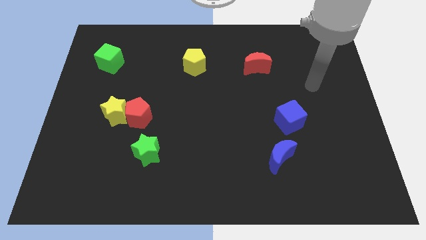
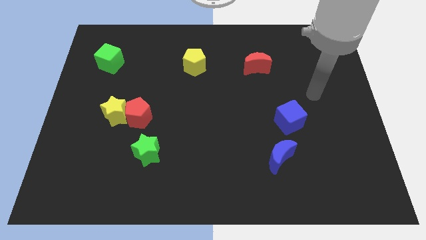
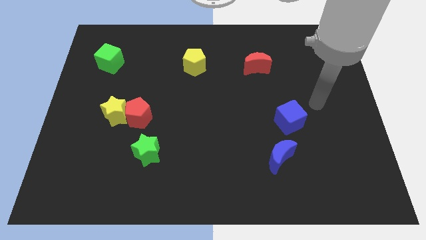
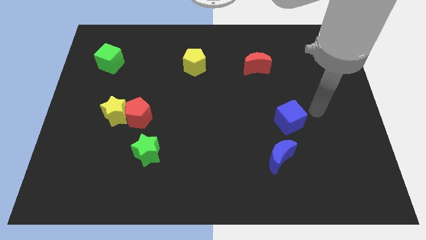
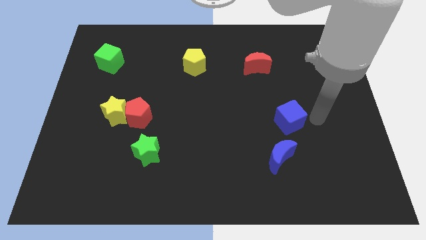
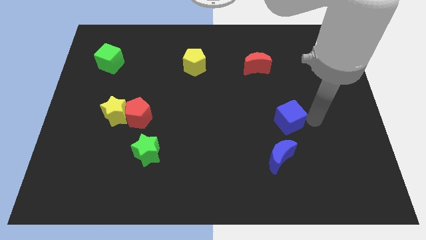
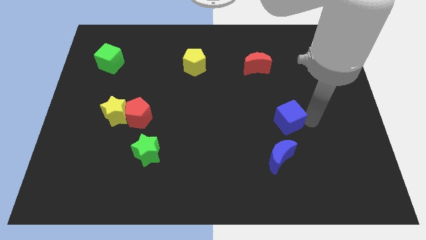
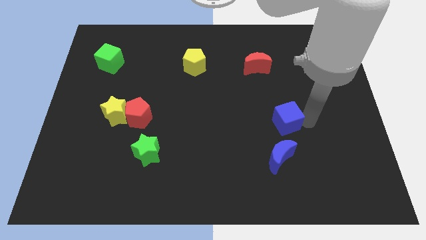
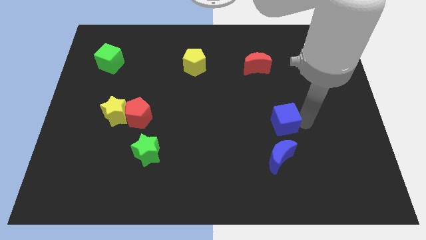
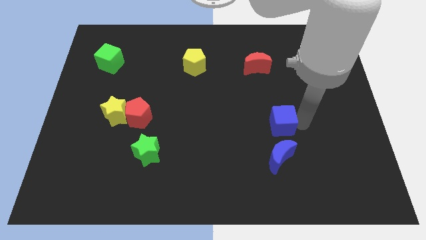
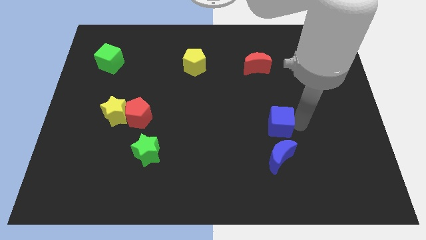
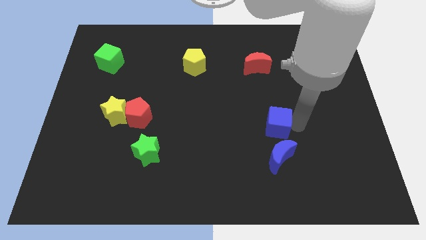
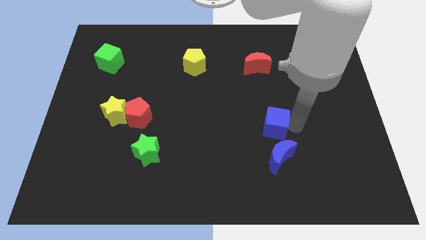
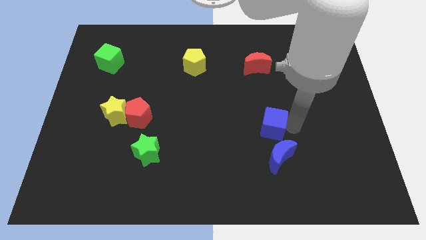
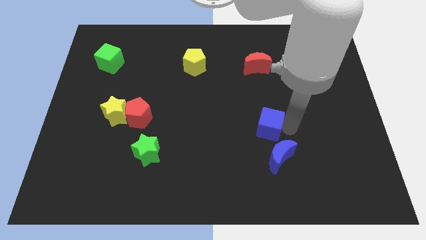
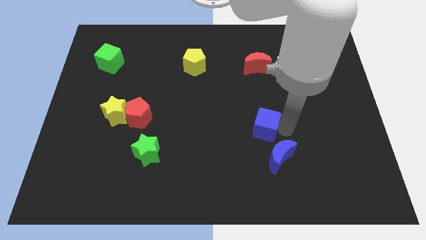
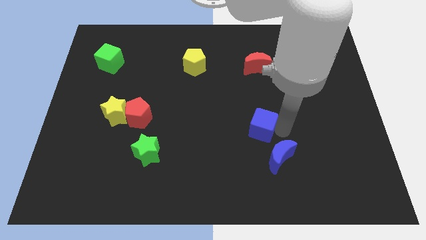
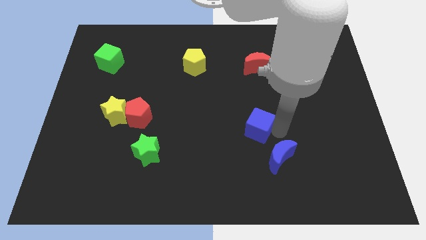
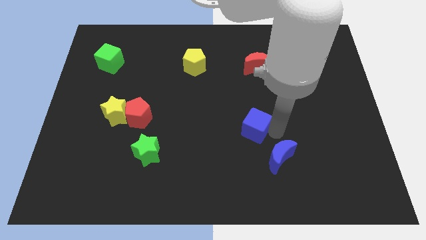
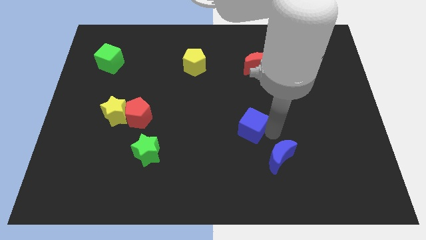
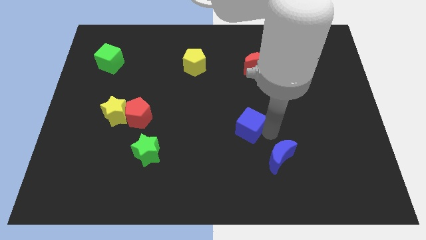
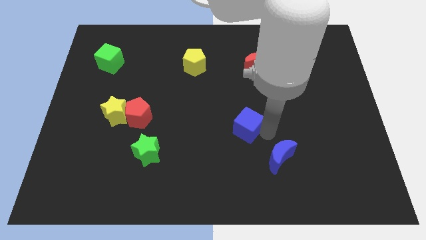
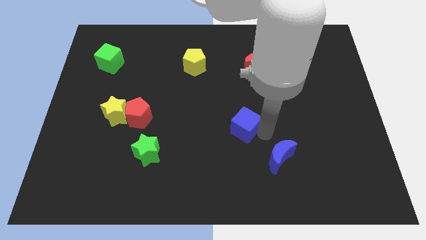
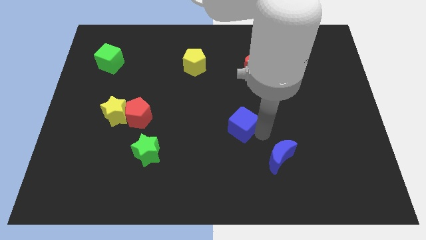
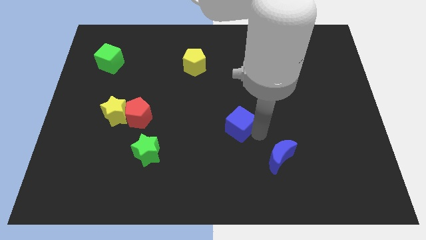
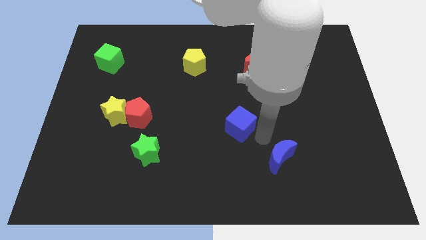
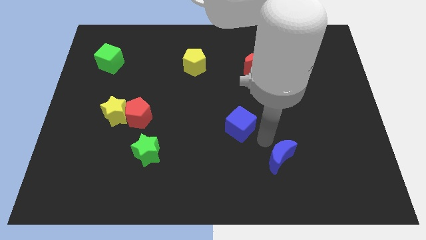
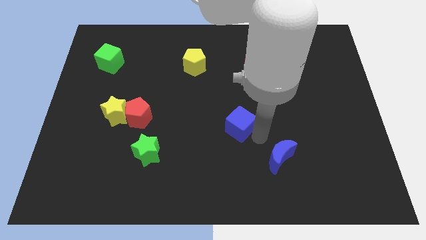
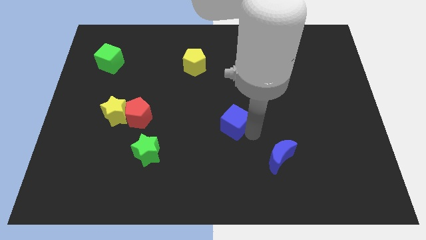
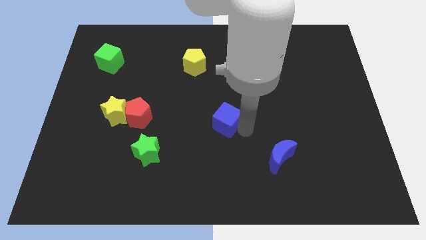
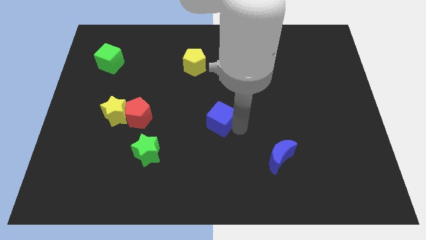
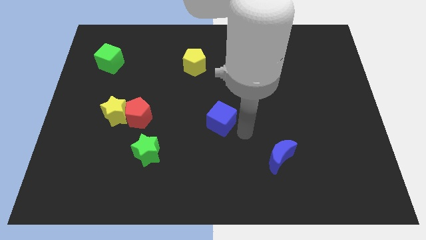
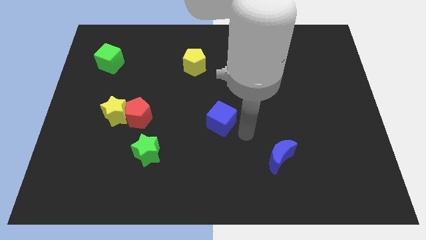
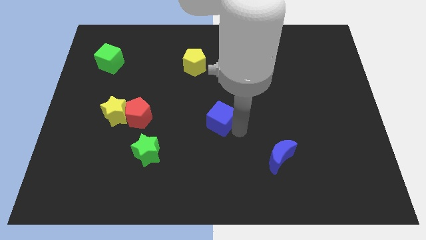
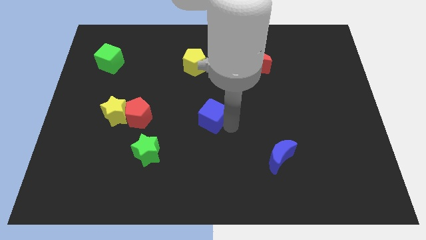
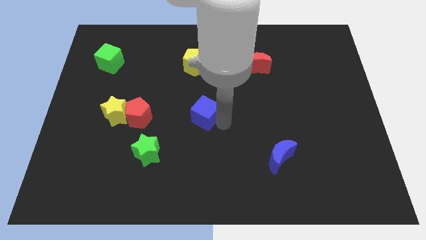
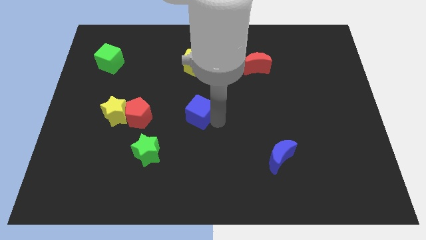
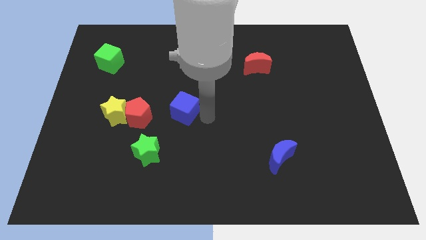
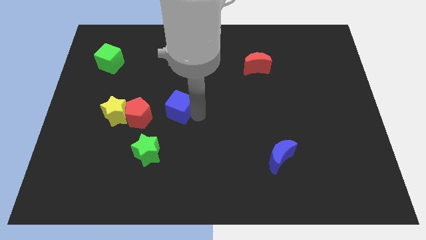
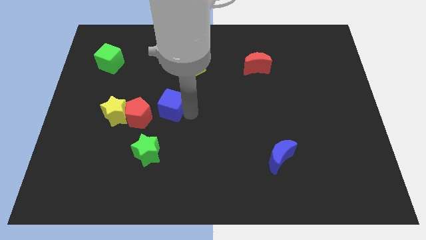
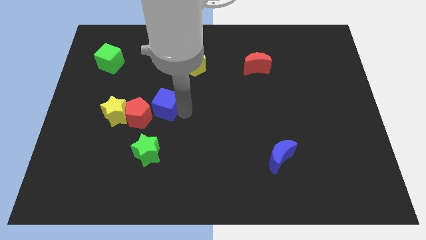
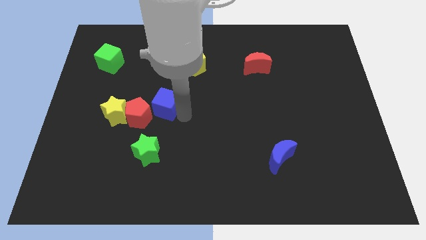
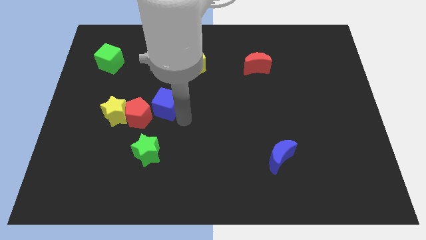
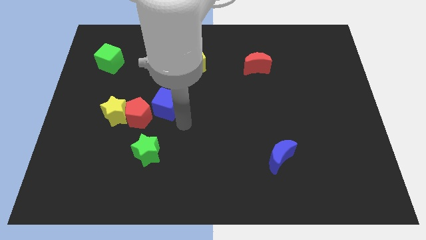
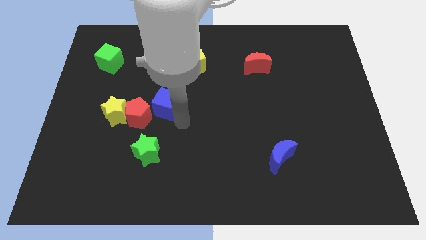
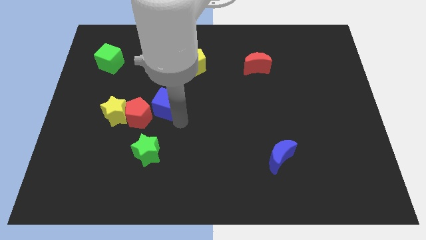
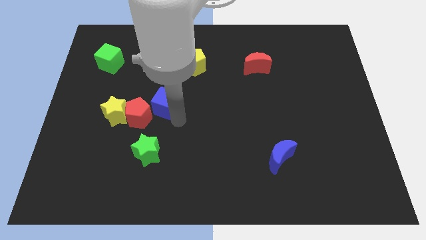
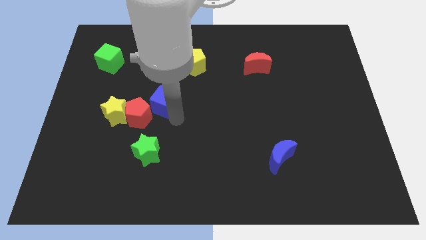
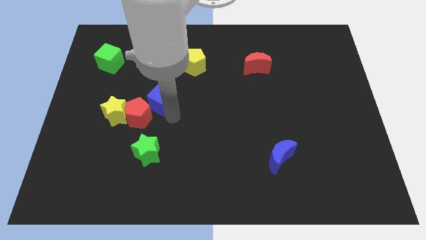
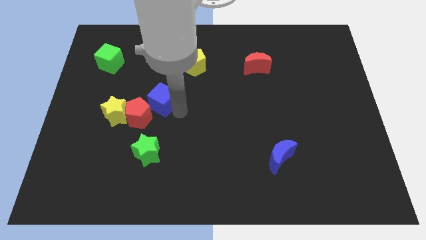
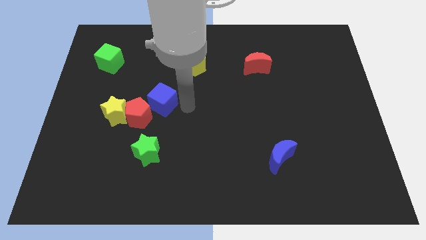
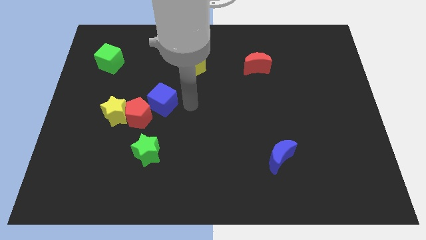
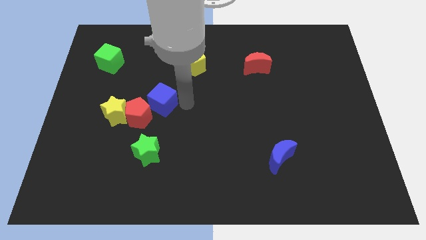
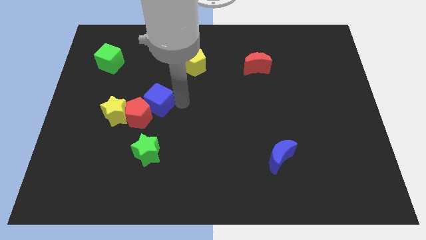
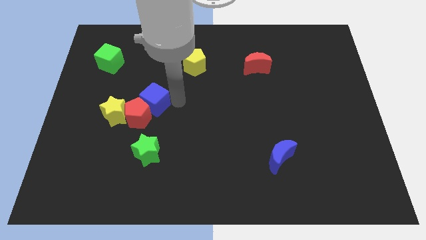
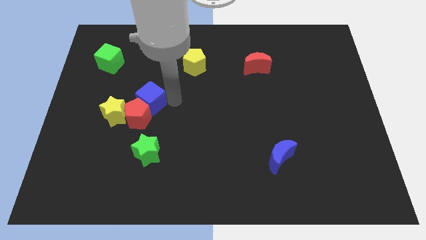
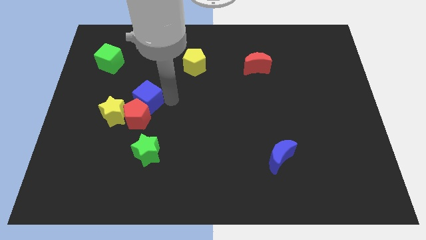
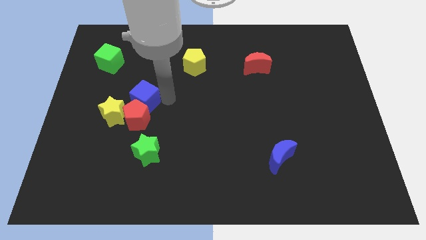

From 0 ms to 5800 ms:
move the blue cube to the top left side of the red pentagon

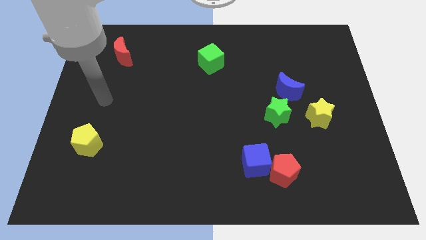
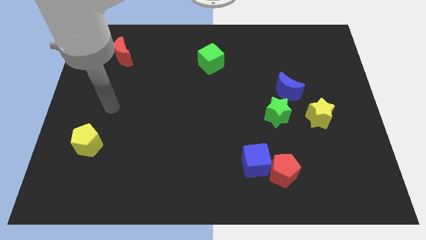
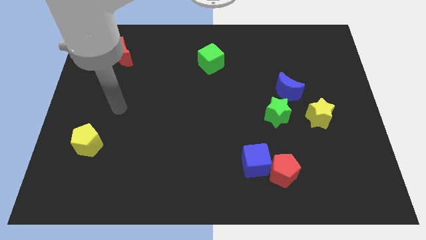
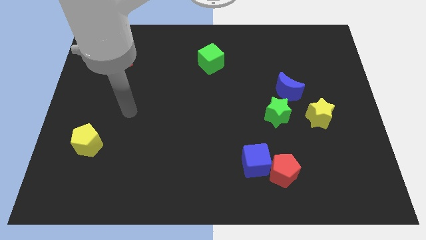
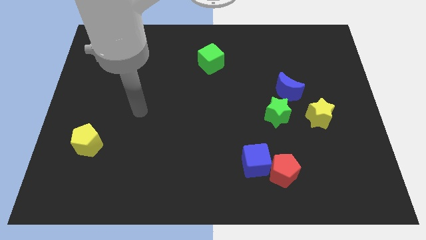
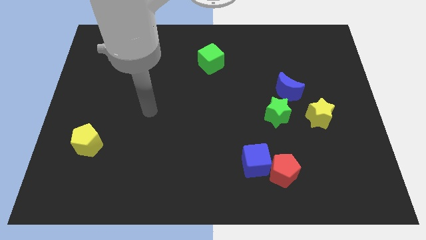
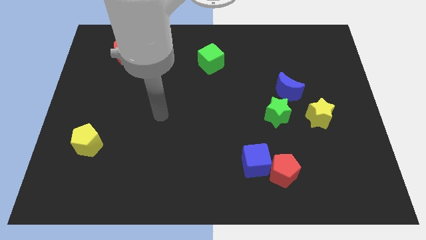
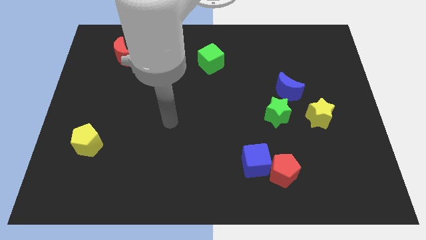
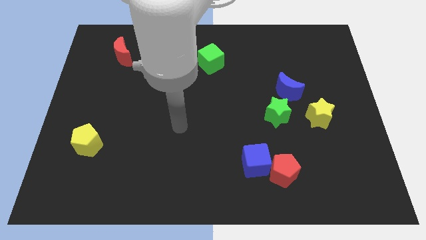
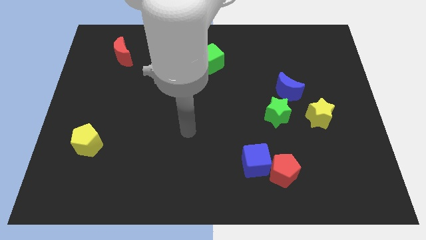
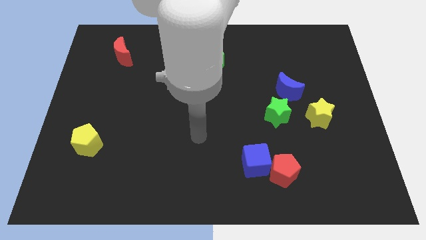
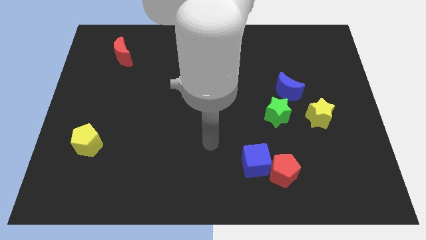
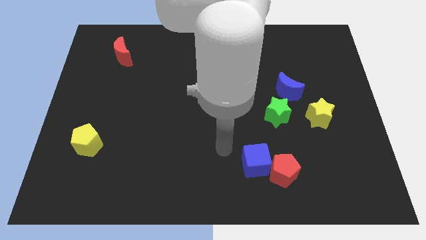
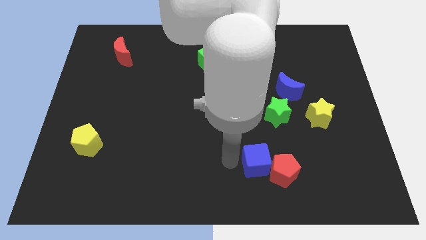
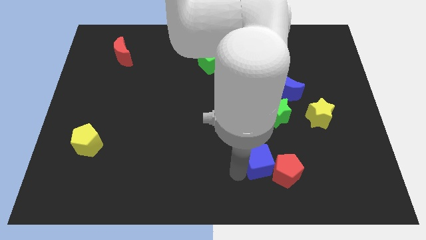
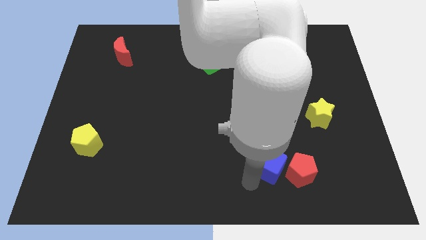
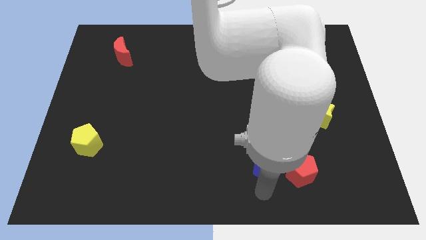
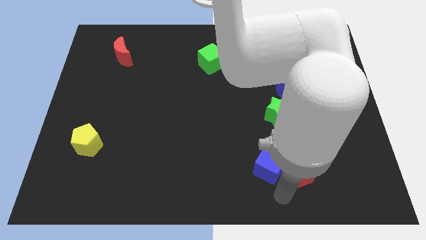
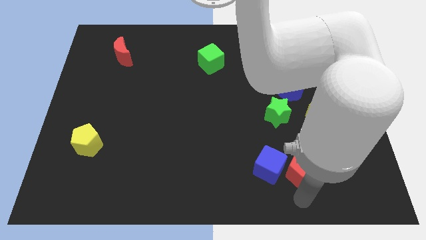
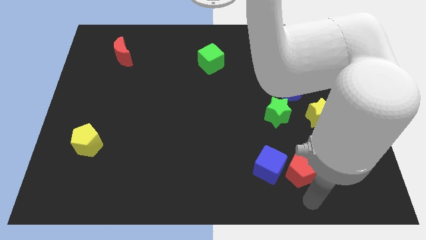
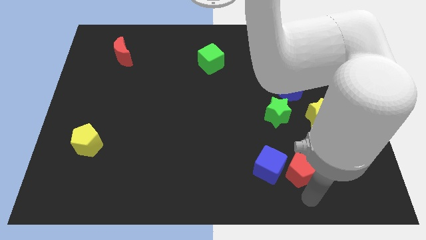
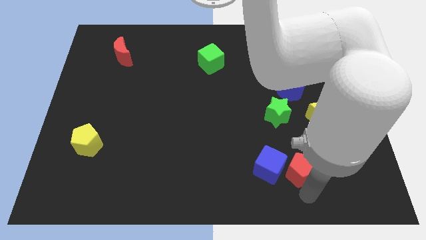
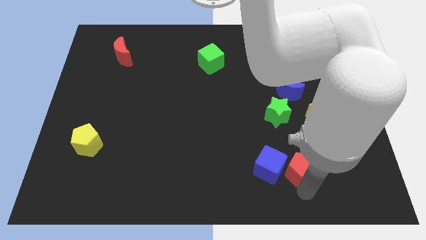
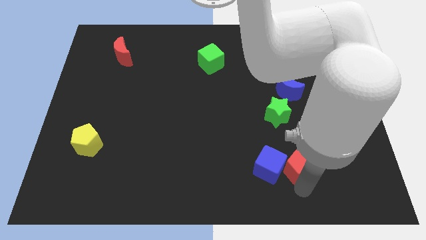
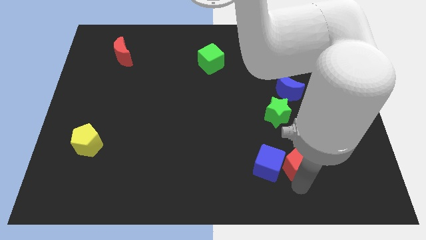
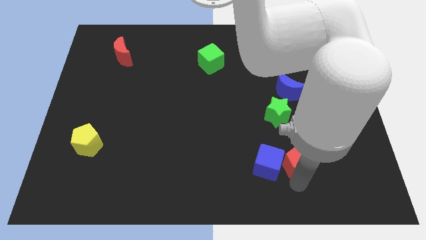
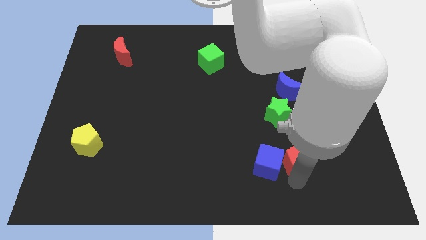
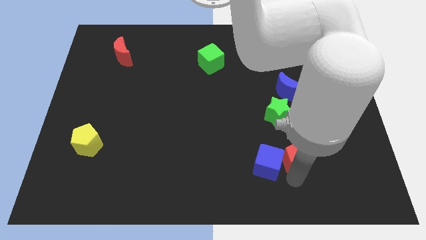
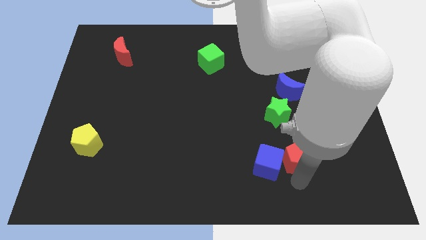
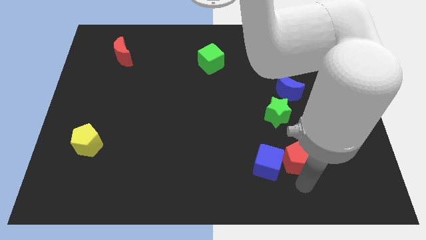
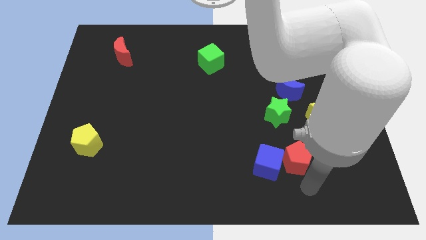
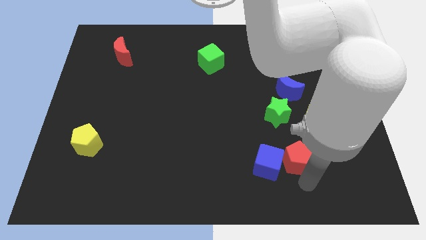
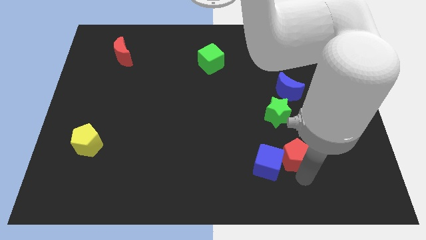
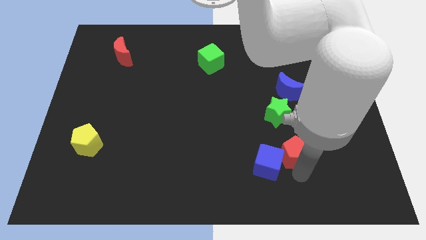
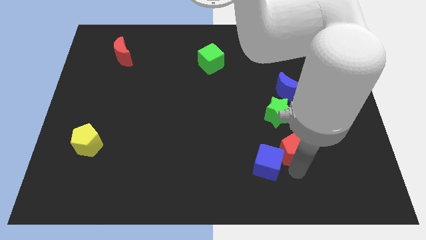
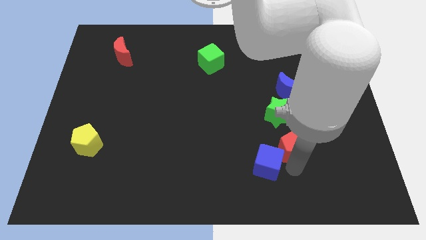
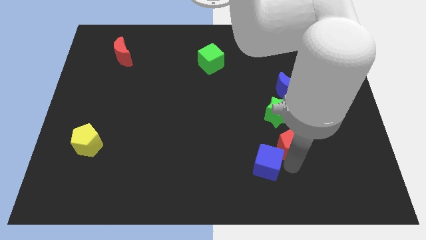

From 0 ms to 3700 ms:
push the red pentagon to the bottom of the blue moon
